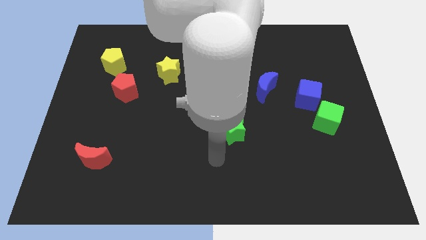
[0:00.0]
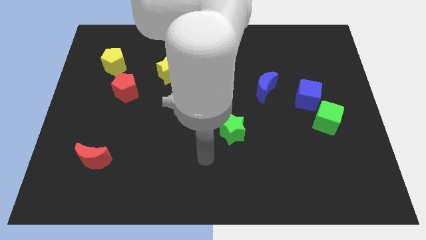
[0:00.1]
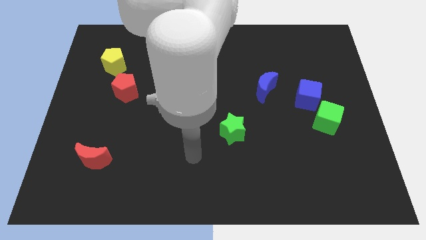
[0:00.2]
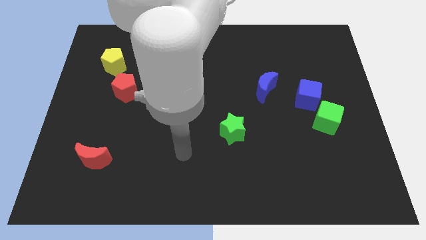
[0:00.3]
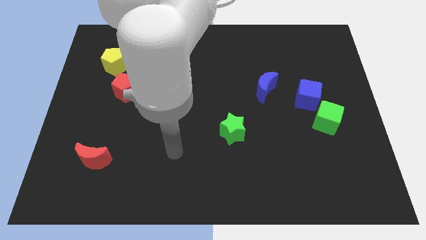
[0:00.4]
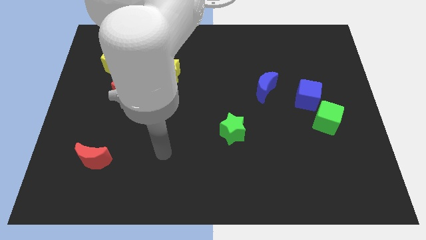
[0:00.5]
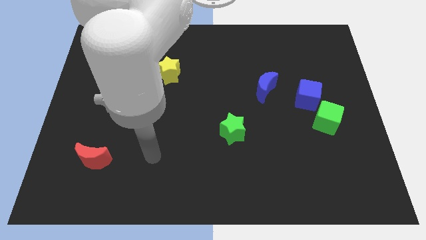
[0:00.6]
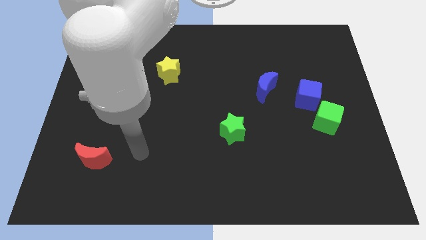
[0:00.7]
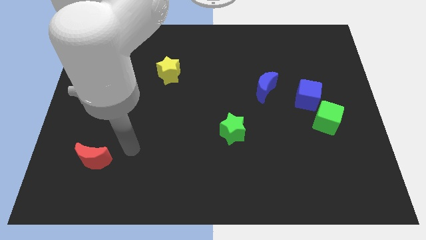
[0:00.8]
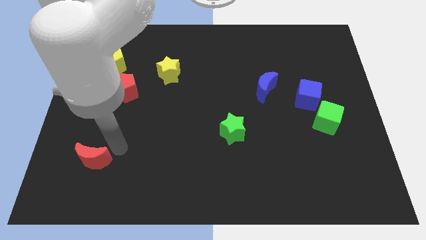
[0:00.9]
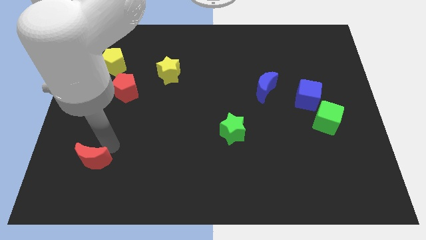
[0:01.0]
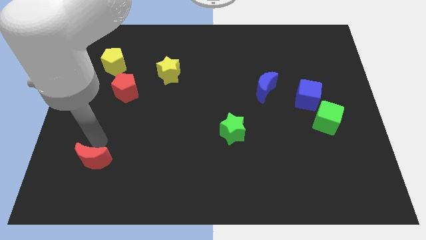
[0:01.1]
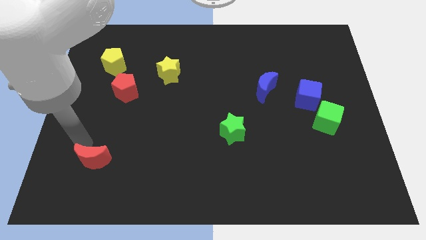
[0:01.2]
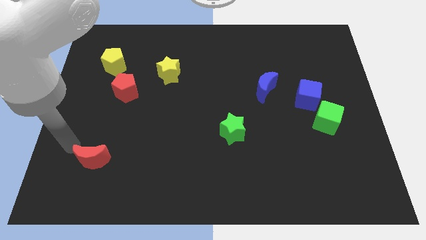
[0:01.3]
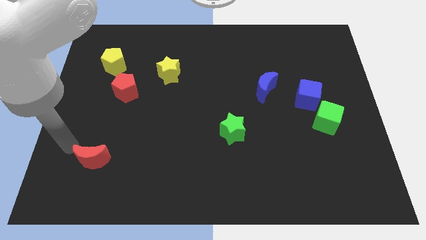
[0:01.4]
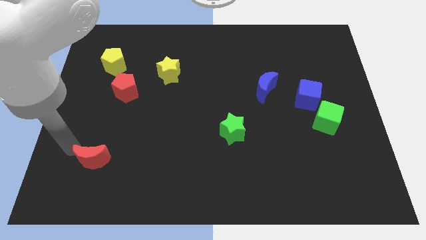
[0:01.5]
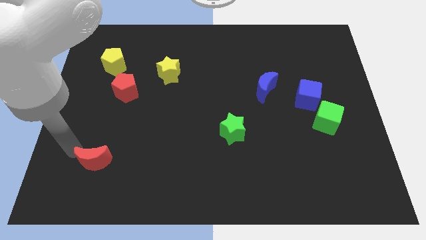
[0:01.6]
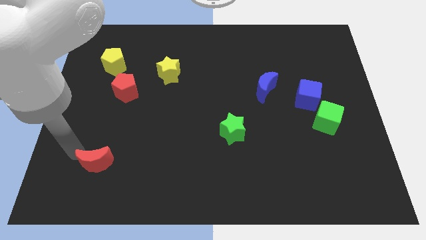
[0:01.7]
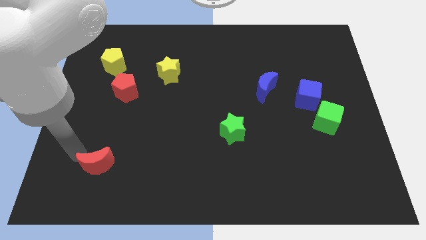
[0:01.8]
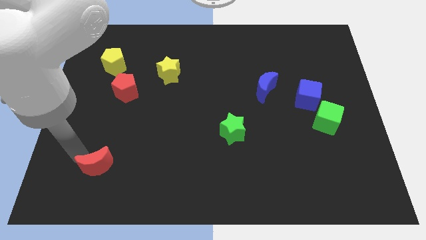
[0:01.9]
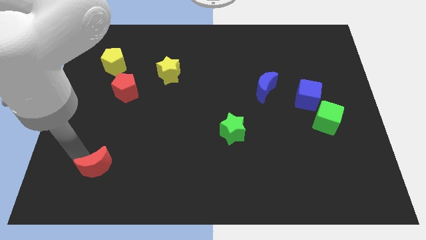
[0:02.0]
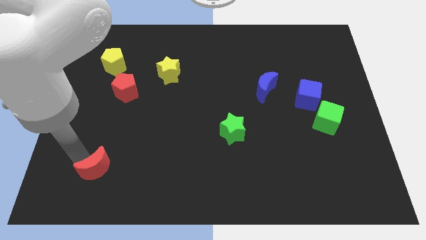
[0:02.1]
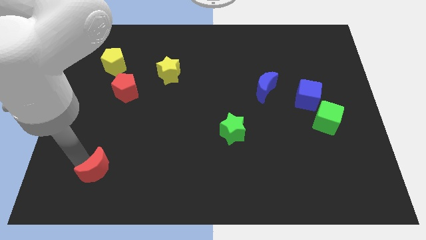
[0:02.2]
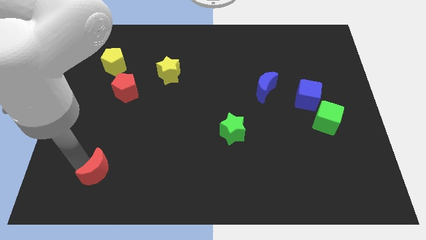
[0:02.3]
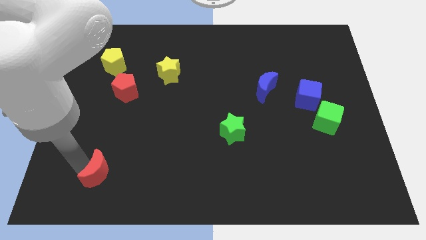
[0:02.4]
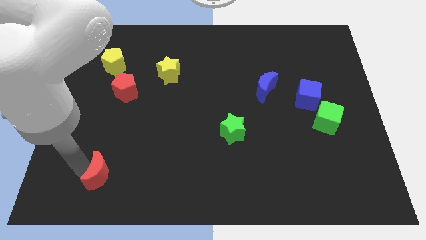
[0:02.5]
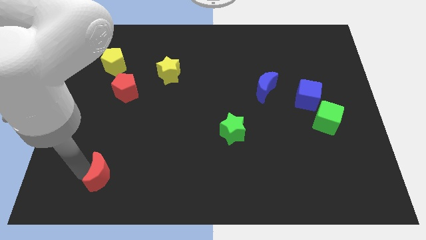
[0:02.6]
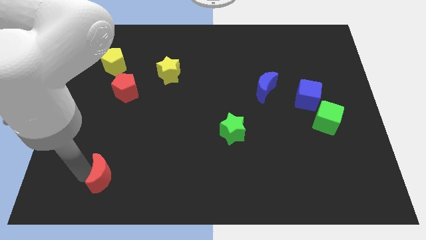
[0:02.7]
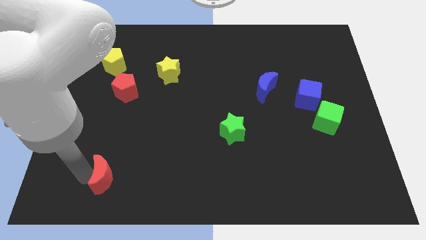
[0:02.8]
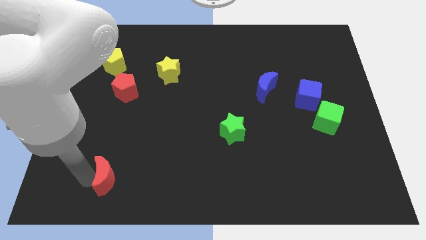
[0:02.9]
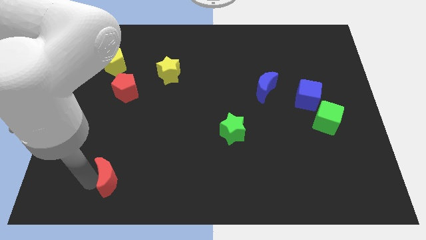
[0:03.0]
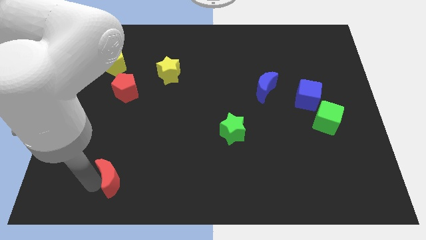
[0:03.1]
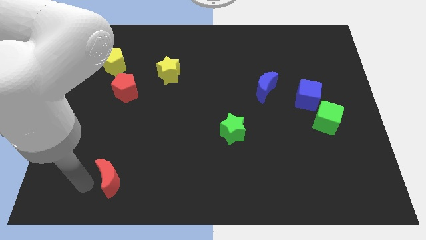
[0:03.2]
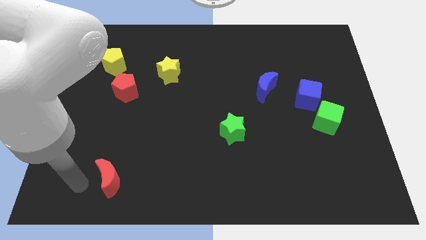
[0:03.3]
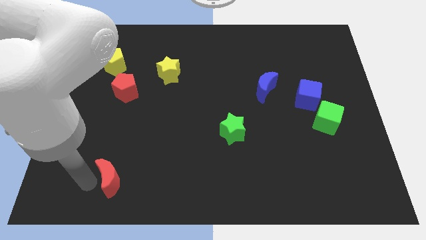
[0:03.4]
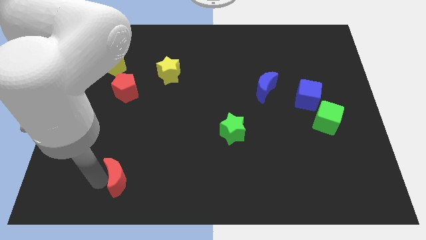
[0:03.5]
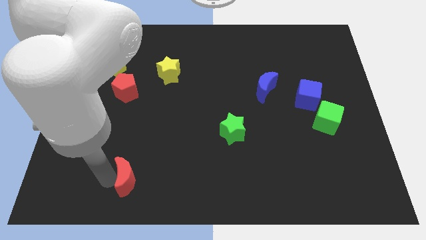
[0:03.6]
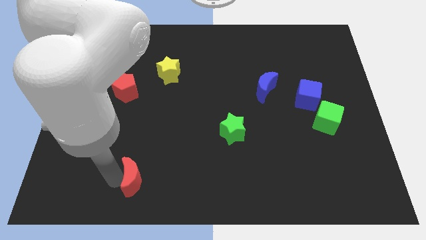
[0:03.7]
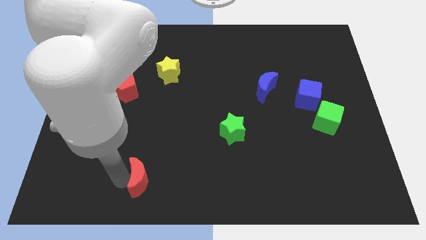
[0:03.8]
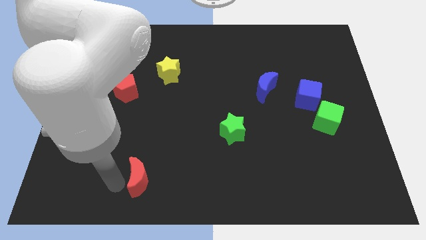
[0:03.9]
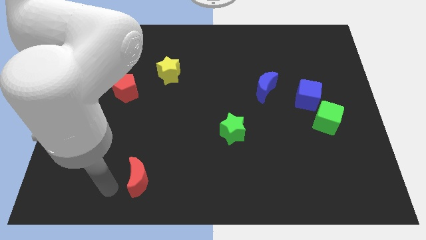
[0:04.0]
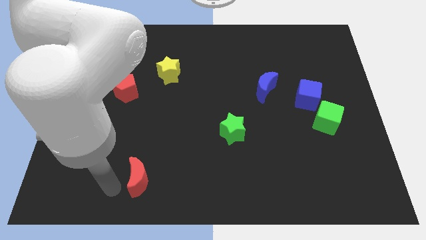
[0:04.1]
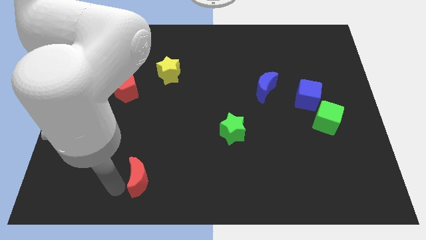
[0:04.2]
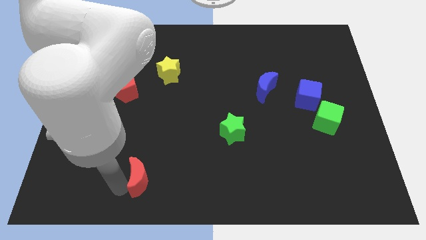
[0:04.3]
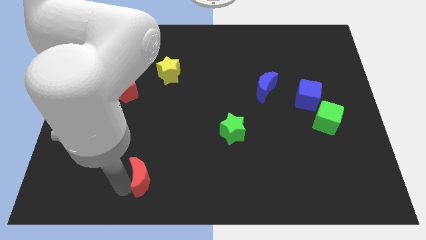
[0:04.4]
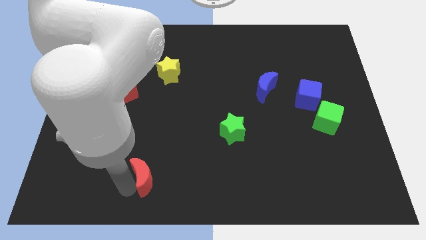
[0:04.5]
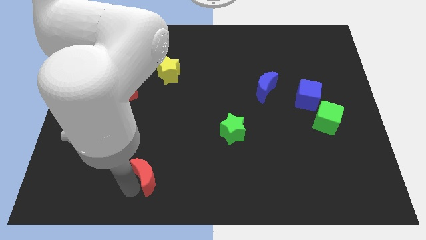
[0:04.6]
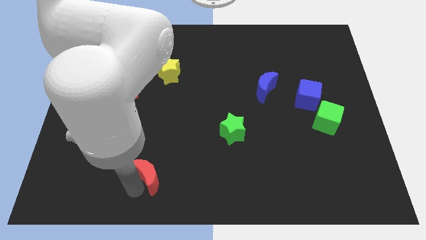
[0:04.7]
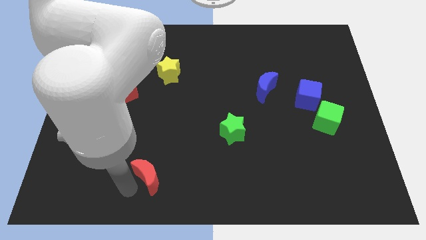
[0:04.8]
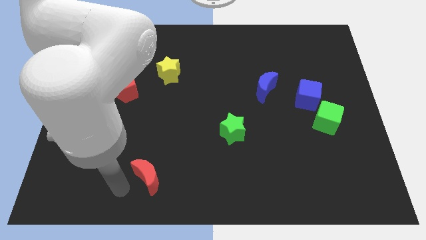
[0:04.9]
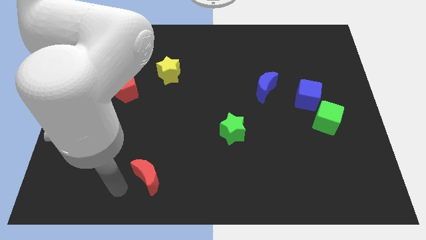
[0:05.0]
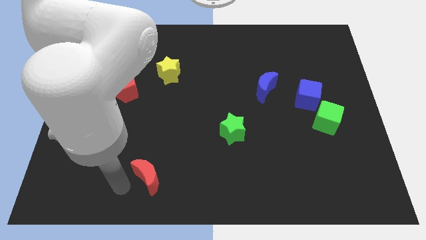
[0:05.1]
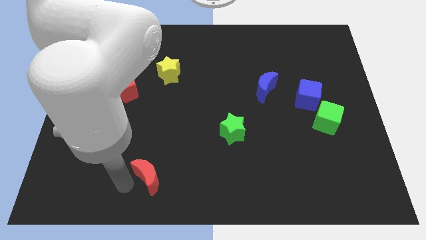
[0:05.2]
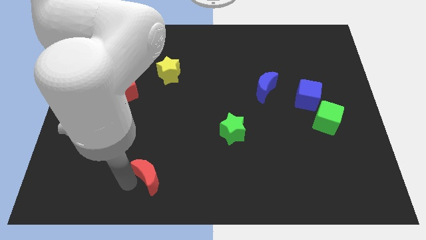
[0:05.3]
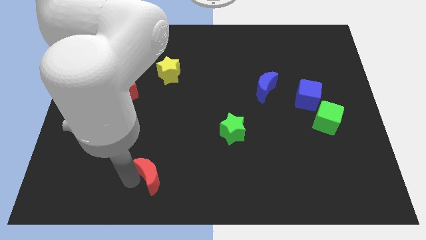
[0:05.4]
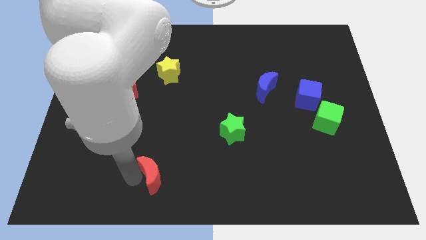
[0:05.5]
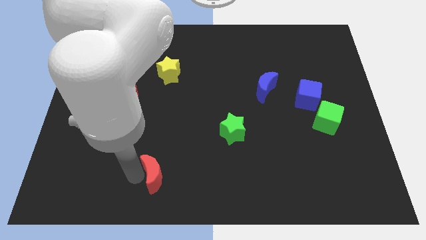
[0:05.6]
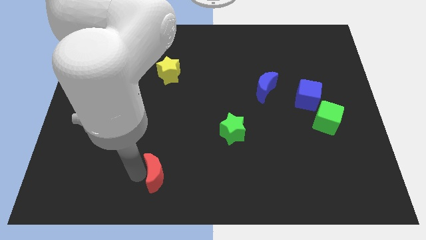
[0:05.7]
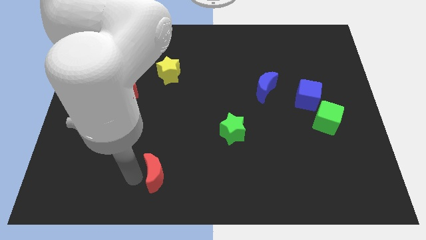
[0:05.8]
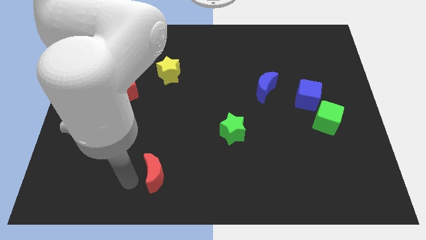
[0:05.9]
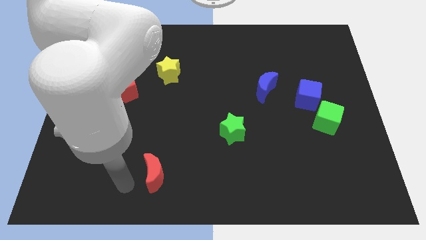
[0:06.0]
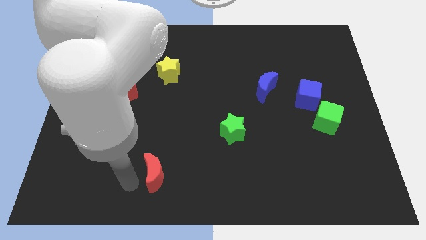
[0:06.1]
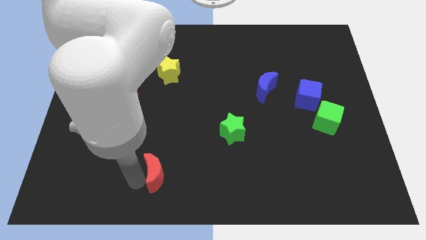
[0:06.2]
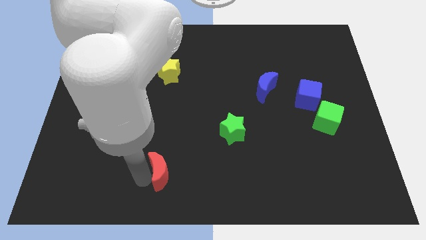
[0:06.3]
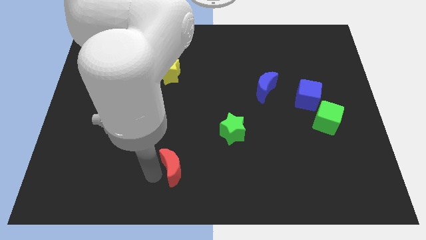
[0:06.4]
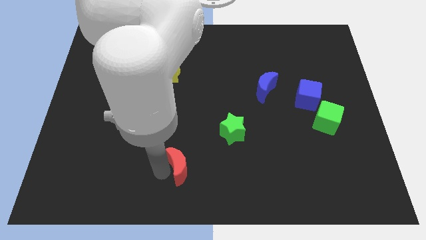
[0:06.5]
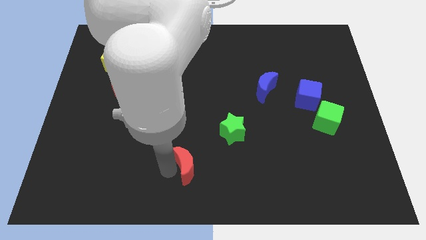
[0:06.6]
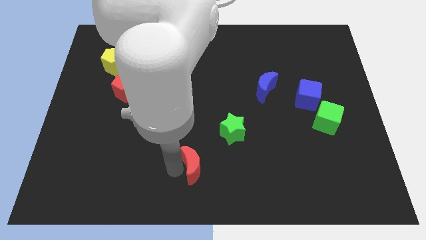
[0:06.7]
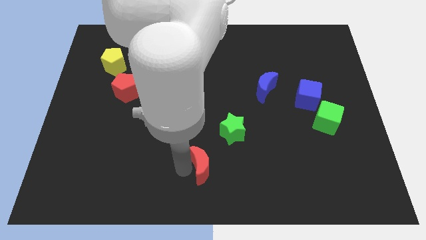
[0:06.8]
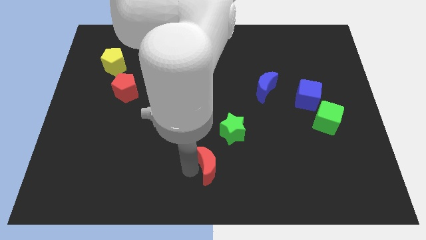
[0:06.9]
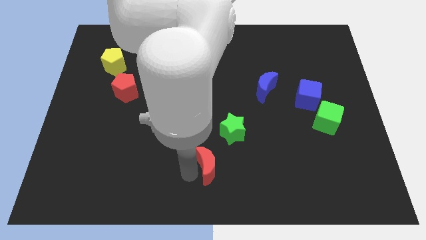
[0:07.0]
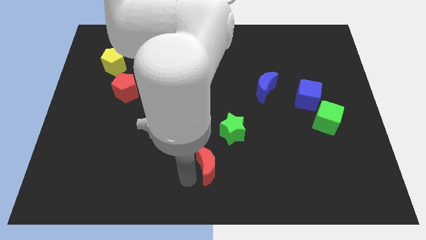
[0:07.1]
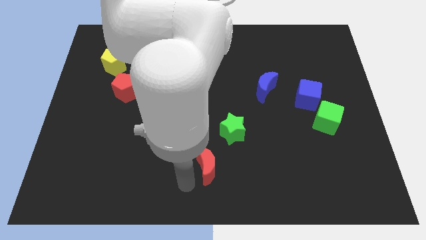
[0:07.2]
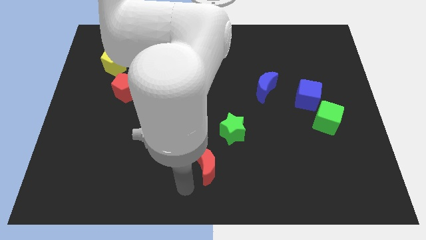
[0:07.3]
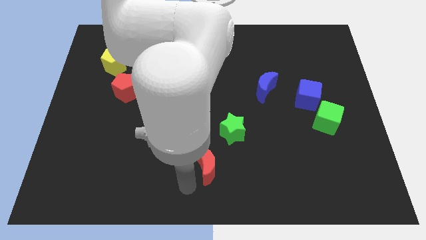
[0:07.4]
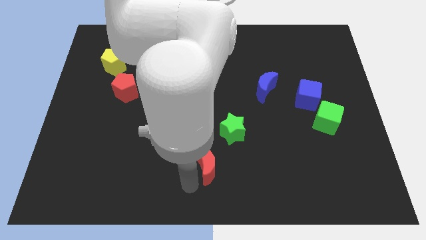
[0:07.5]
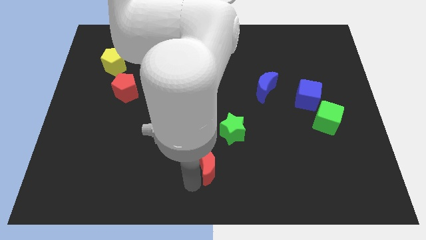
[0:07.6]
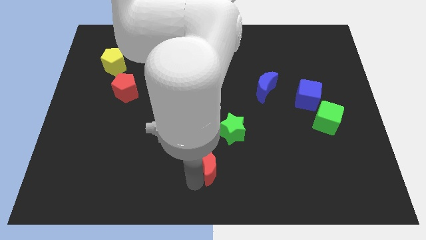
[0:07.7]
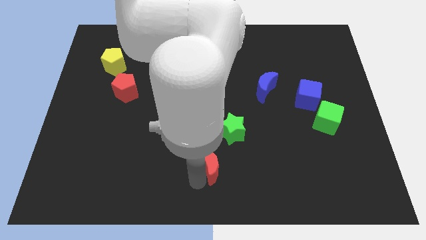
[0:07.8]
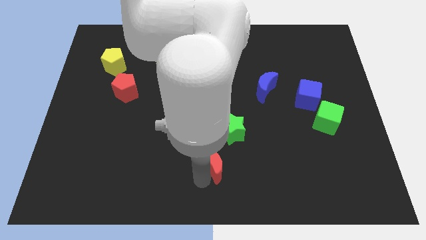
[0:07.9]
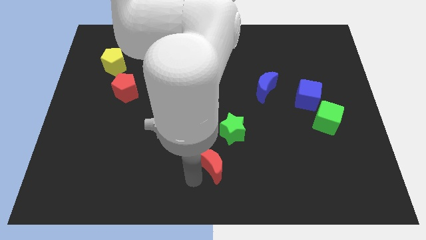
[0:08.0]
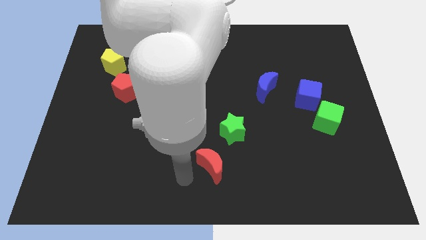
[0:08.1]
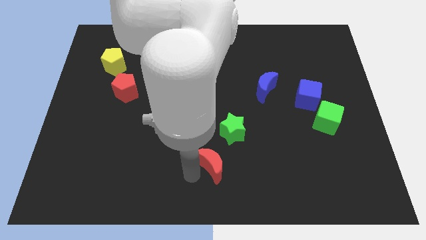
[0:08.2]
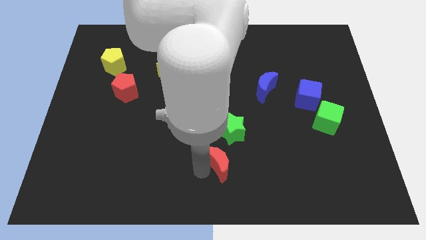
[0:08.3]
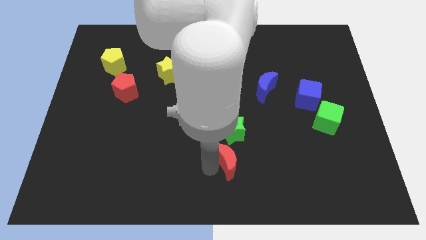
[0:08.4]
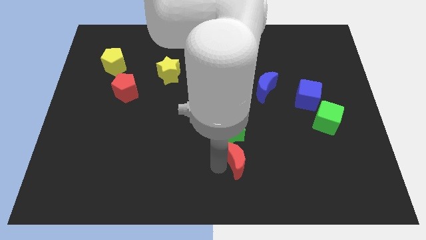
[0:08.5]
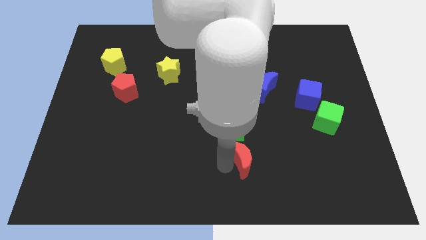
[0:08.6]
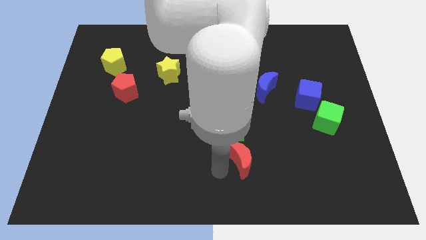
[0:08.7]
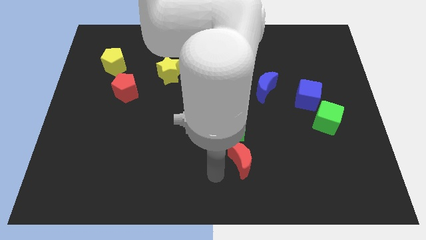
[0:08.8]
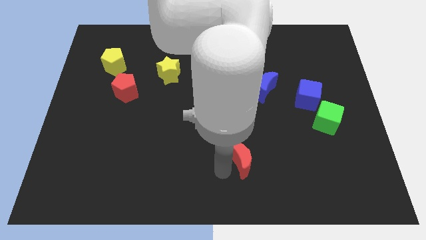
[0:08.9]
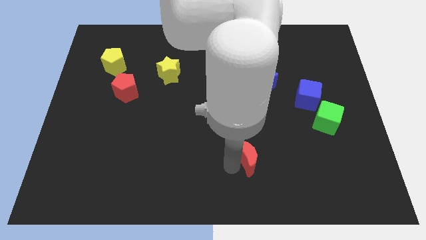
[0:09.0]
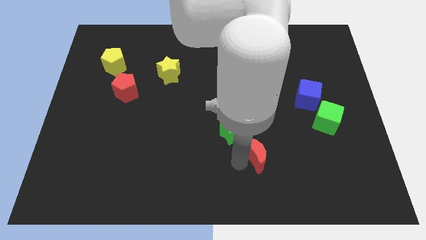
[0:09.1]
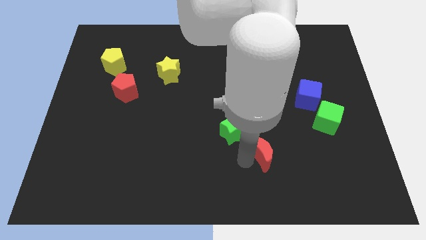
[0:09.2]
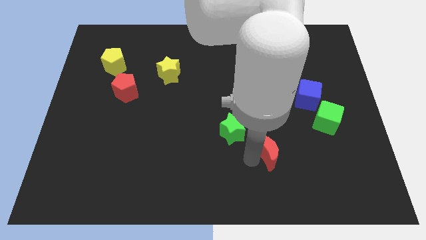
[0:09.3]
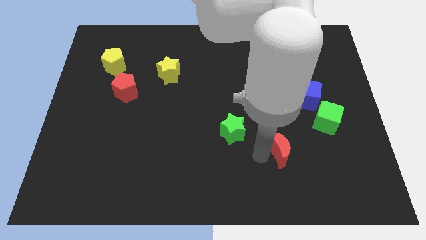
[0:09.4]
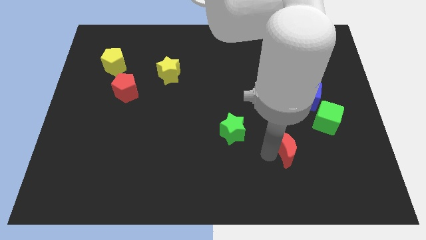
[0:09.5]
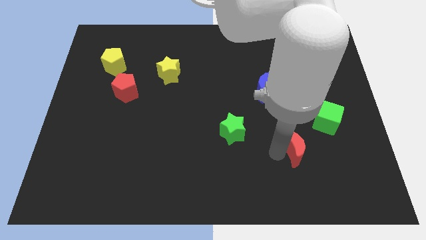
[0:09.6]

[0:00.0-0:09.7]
move the red moon diagonally down and to the left of the green cube
